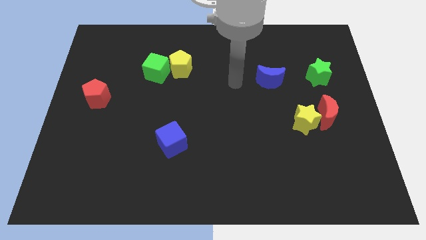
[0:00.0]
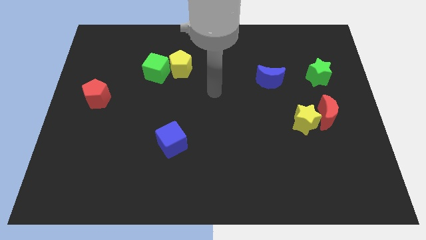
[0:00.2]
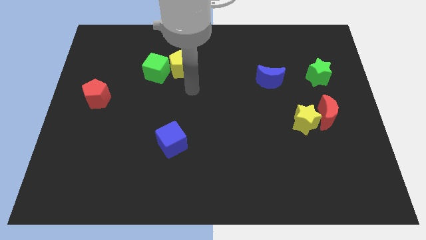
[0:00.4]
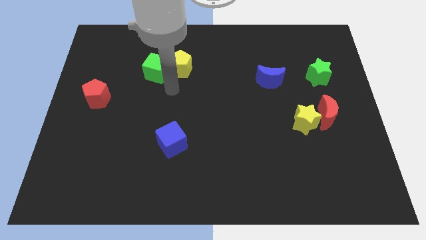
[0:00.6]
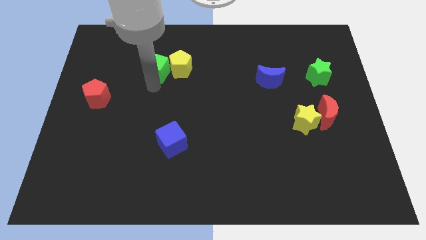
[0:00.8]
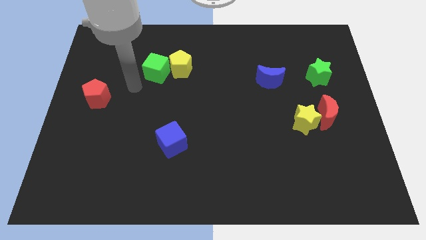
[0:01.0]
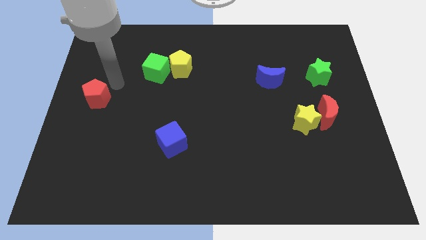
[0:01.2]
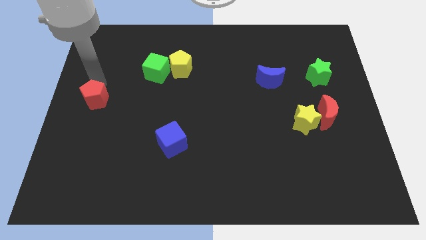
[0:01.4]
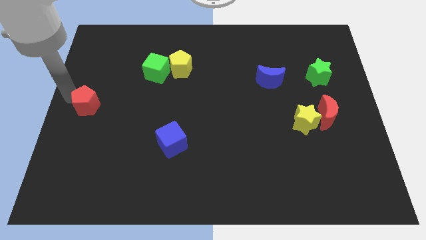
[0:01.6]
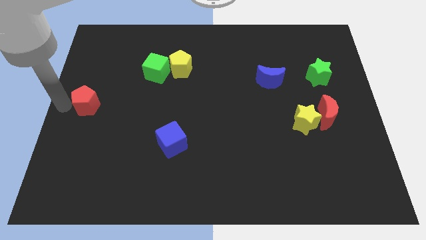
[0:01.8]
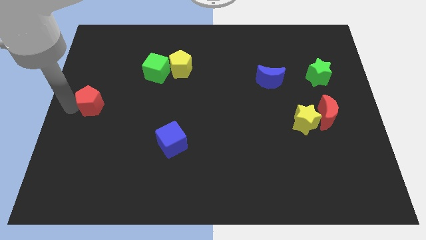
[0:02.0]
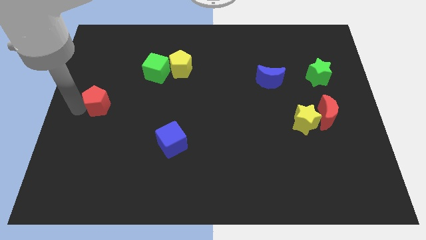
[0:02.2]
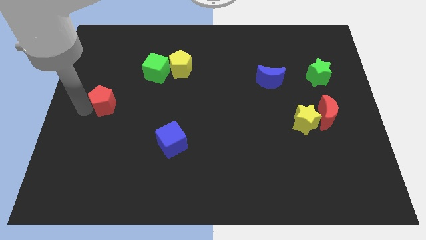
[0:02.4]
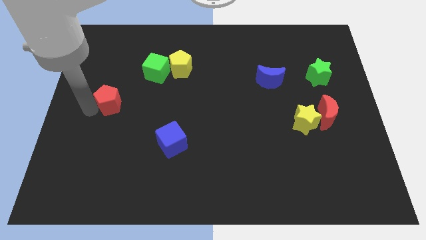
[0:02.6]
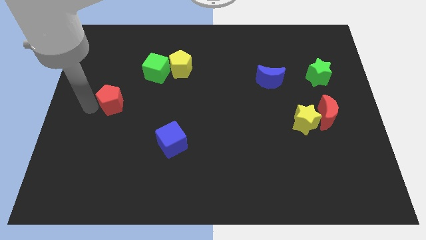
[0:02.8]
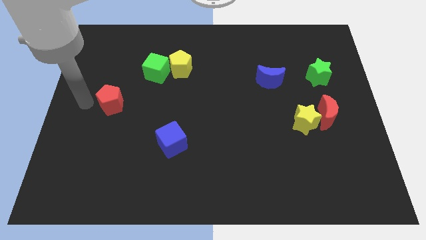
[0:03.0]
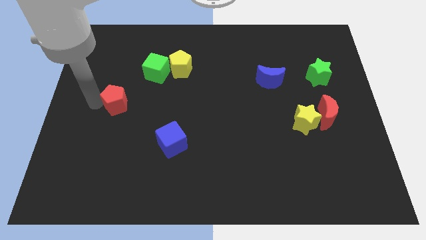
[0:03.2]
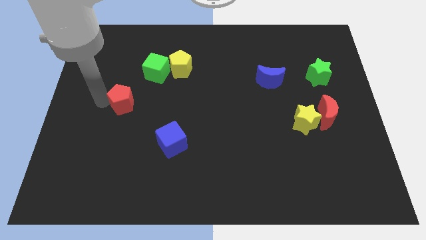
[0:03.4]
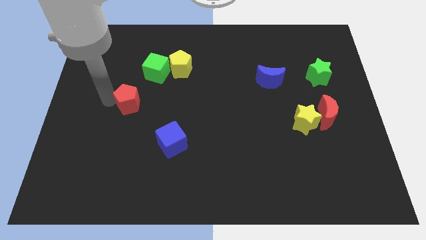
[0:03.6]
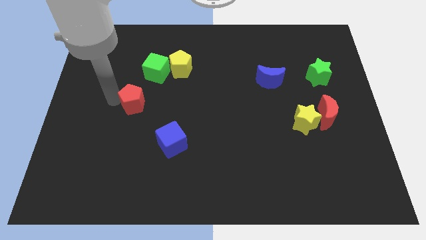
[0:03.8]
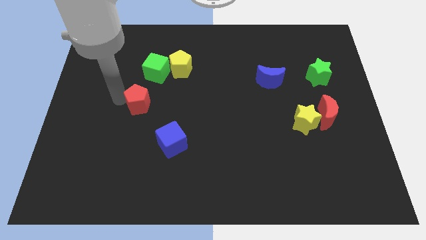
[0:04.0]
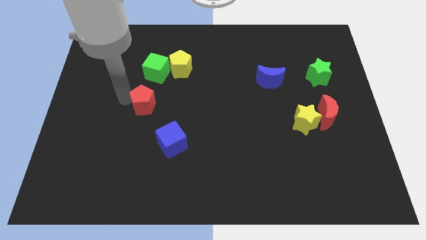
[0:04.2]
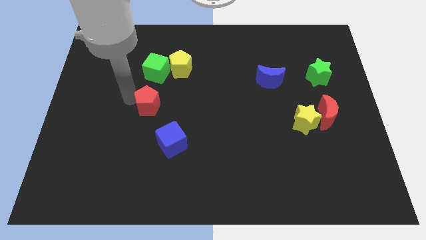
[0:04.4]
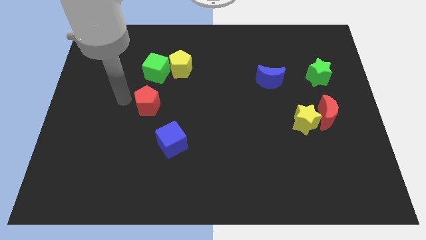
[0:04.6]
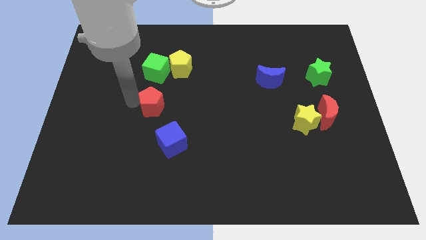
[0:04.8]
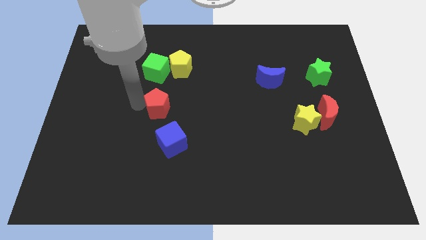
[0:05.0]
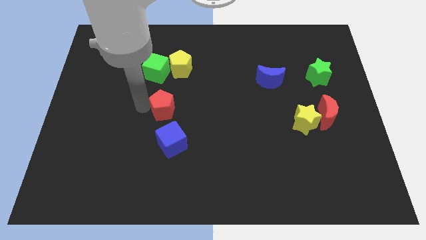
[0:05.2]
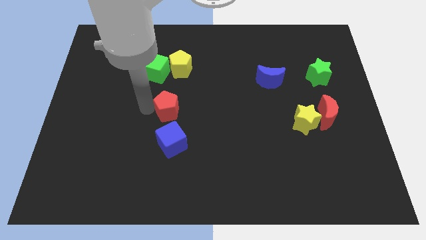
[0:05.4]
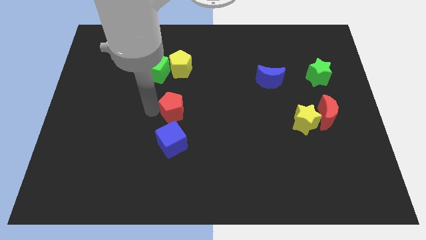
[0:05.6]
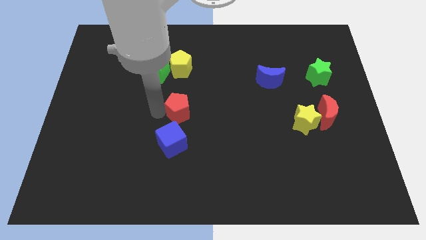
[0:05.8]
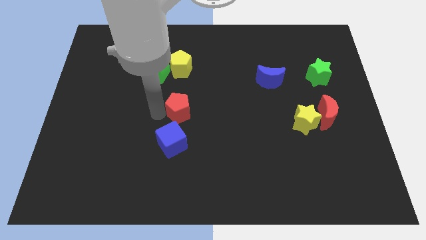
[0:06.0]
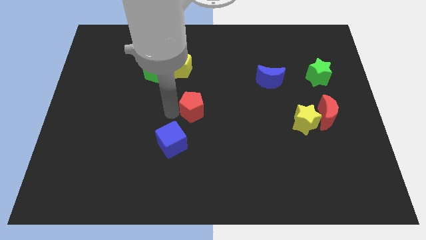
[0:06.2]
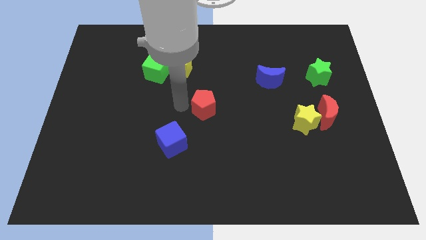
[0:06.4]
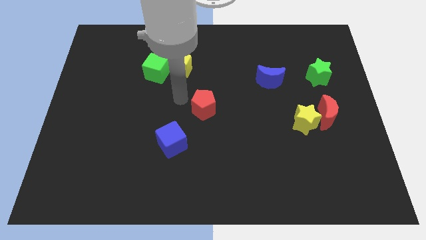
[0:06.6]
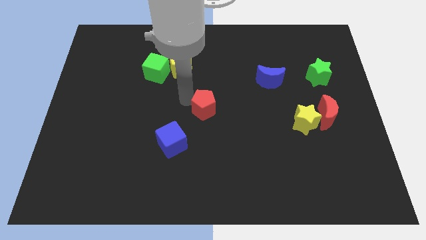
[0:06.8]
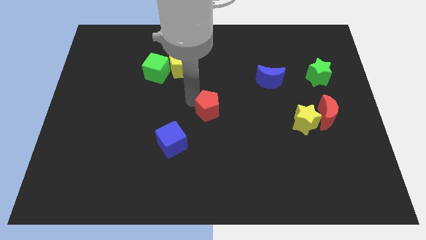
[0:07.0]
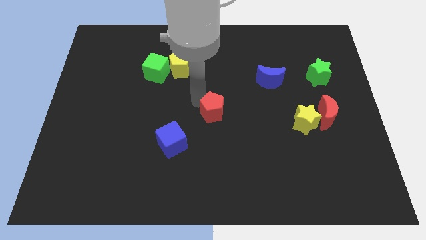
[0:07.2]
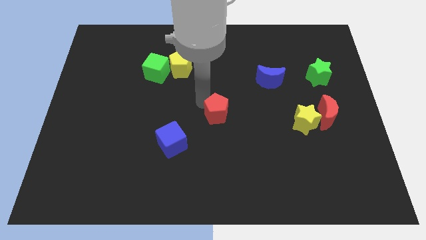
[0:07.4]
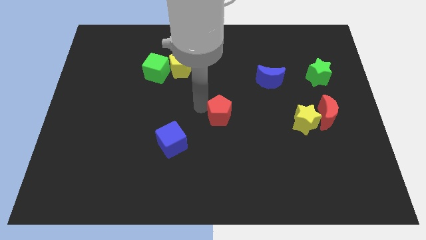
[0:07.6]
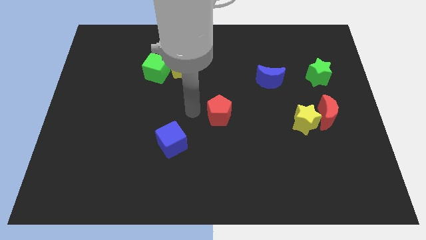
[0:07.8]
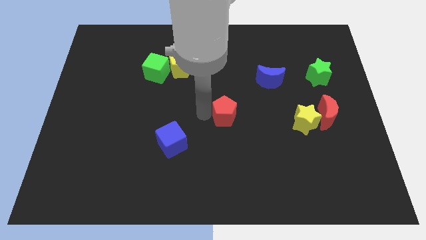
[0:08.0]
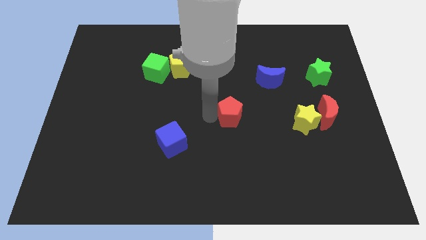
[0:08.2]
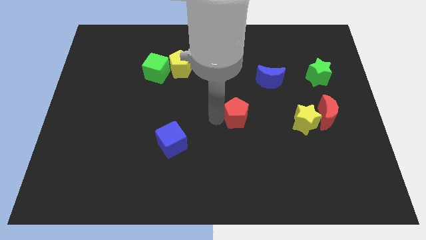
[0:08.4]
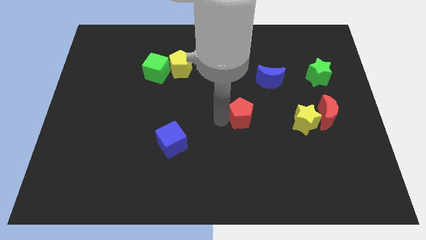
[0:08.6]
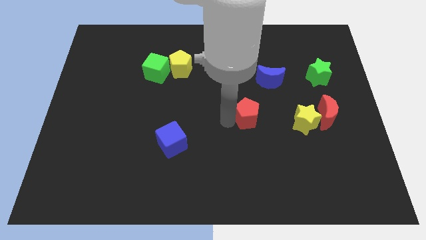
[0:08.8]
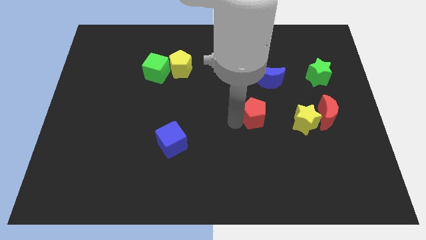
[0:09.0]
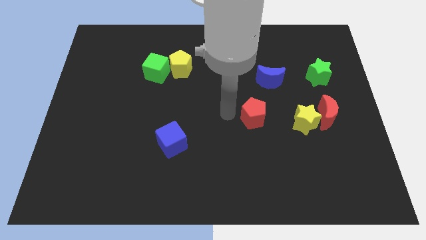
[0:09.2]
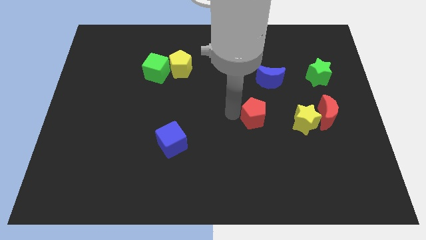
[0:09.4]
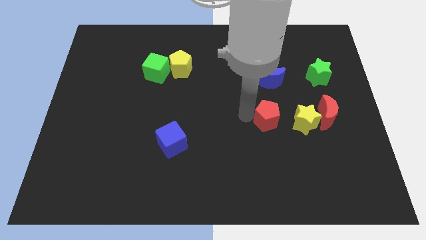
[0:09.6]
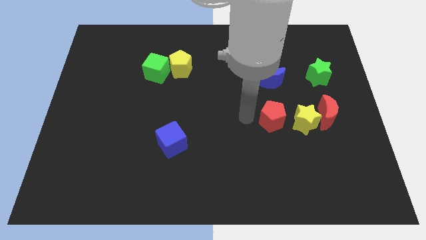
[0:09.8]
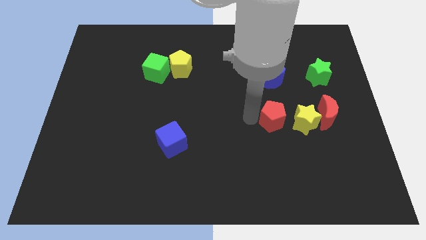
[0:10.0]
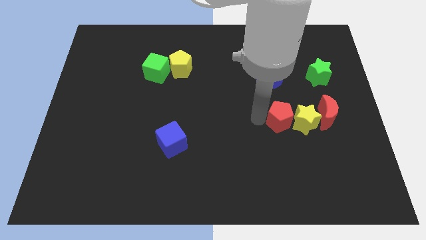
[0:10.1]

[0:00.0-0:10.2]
move the red pentagon next to the yellow star

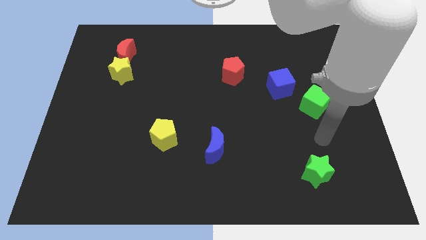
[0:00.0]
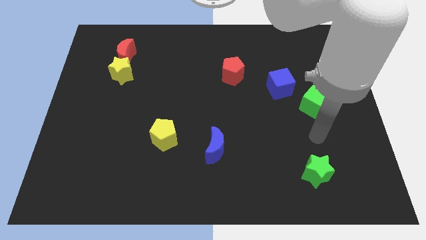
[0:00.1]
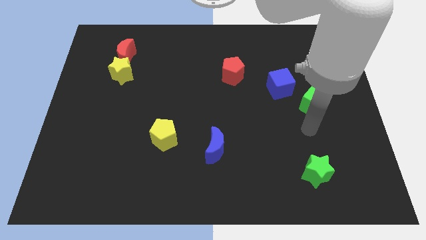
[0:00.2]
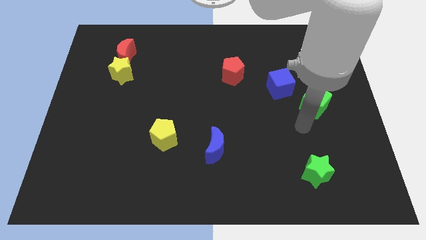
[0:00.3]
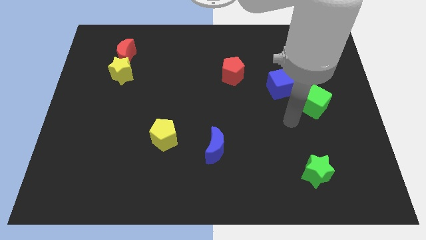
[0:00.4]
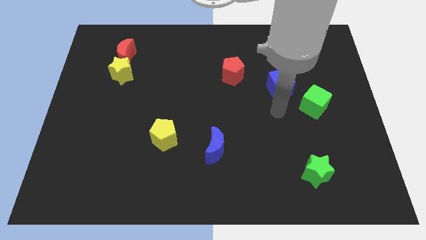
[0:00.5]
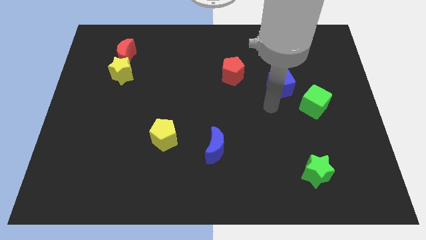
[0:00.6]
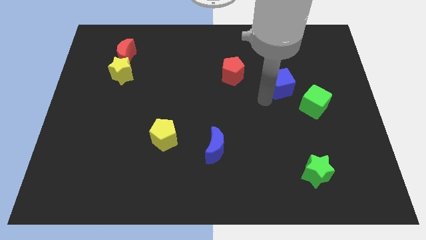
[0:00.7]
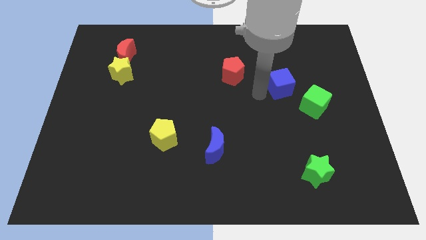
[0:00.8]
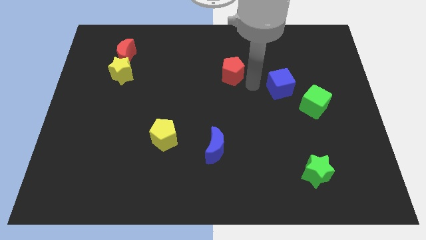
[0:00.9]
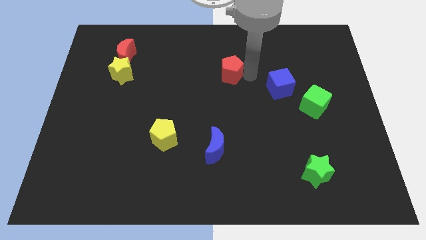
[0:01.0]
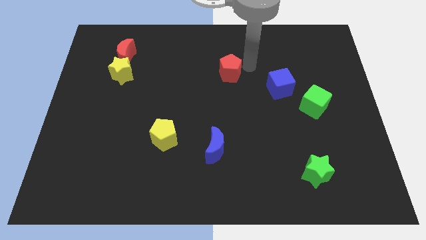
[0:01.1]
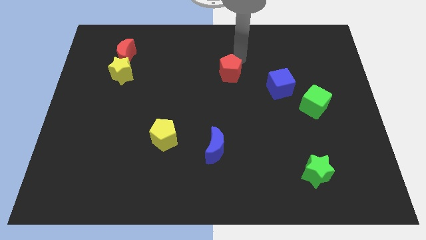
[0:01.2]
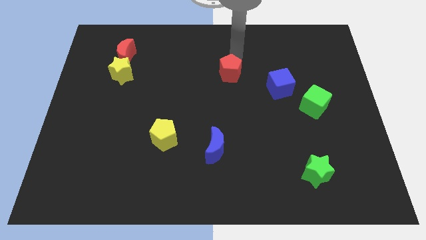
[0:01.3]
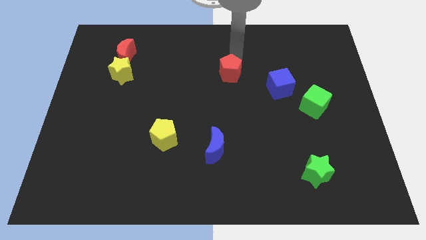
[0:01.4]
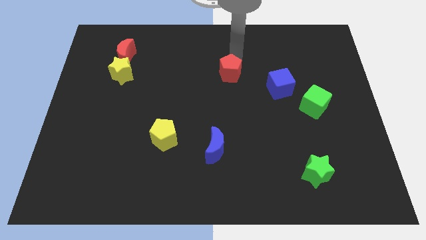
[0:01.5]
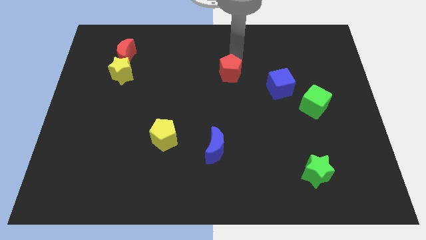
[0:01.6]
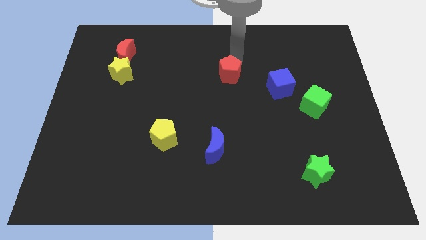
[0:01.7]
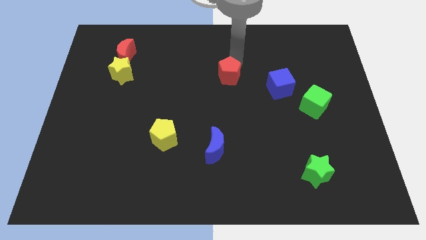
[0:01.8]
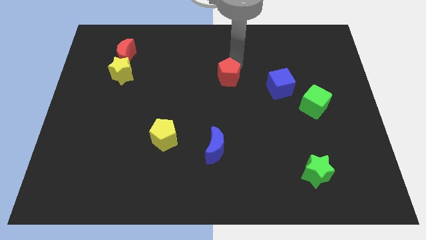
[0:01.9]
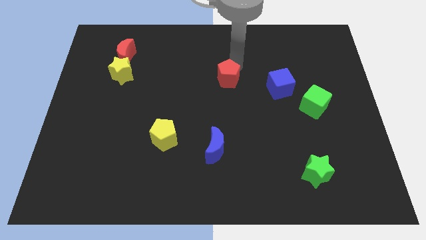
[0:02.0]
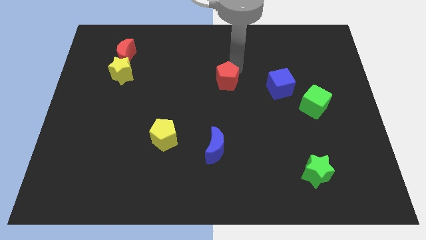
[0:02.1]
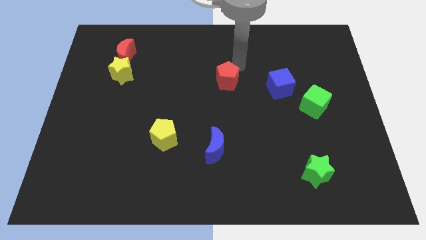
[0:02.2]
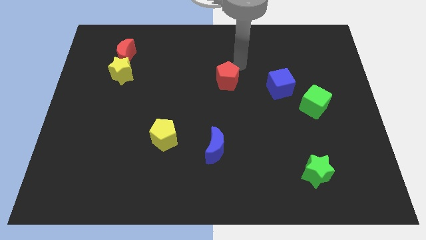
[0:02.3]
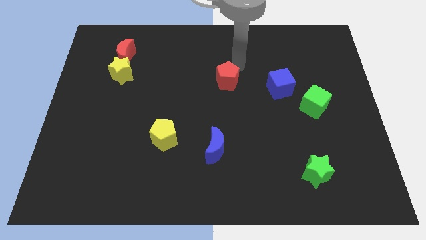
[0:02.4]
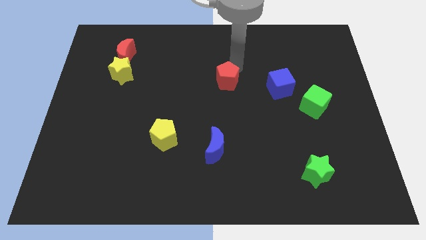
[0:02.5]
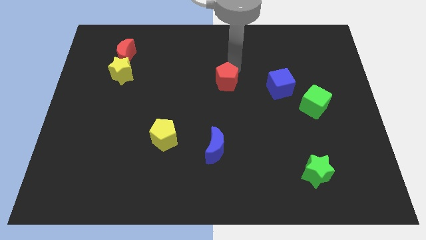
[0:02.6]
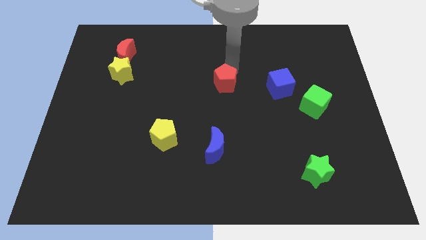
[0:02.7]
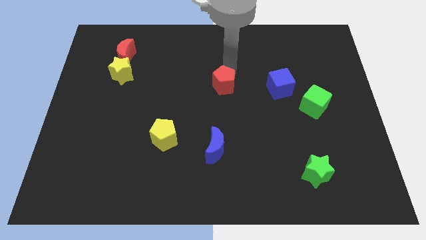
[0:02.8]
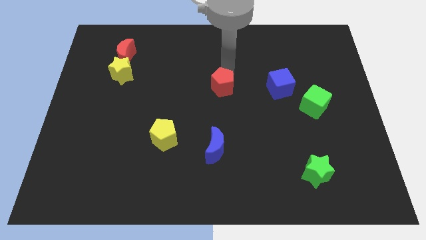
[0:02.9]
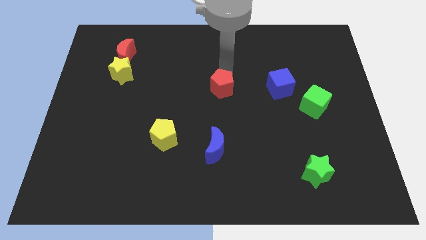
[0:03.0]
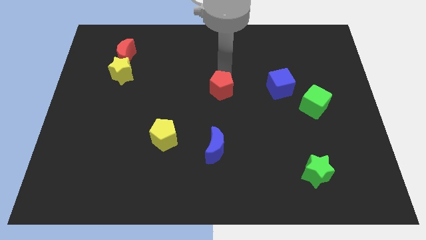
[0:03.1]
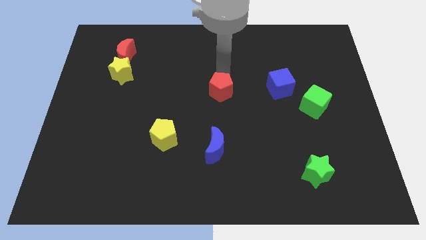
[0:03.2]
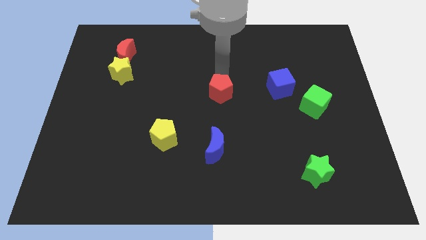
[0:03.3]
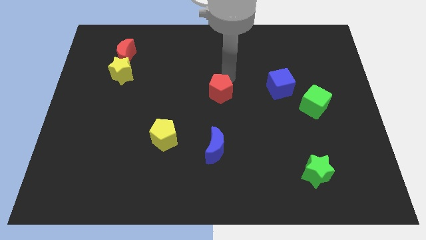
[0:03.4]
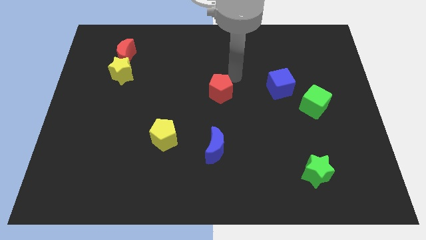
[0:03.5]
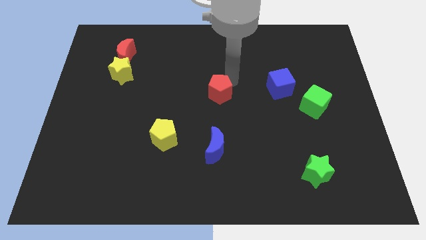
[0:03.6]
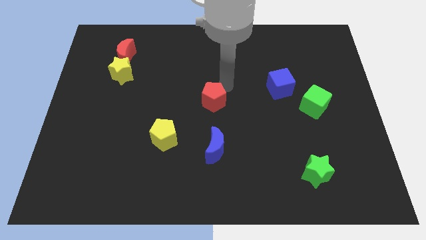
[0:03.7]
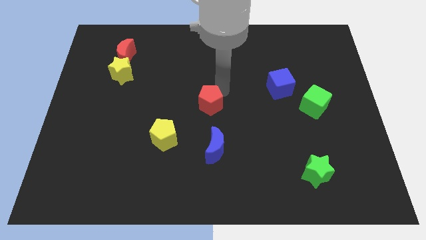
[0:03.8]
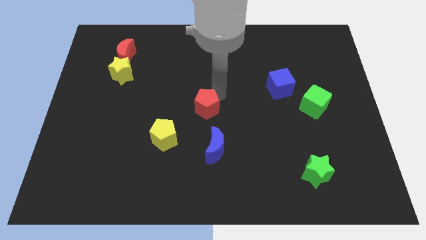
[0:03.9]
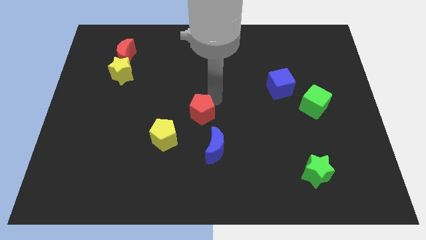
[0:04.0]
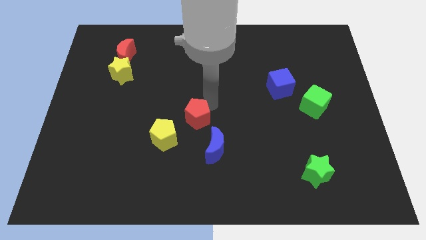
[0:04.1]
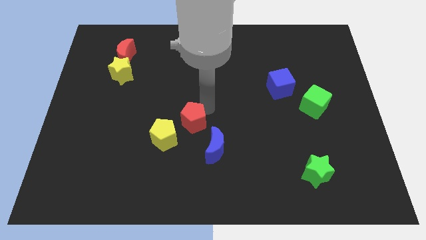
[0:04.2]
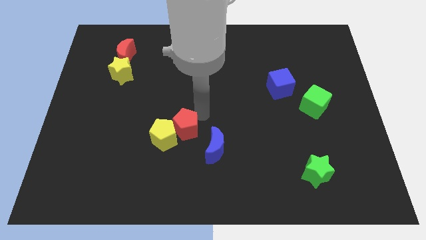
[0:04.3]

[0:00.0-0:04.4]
slide the red pentagon to the yellow pentagon
